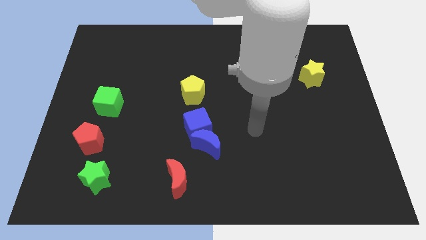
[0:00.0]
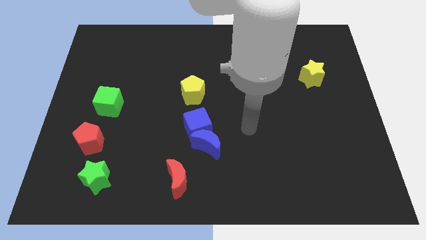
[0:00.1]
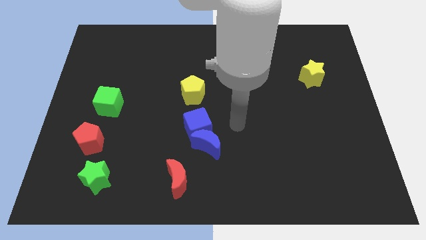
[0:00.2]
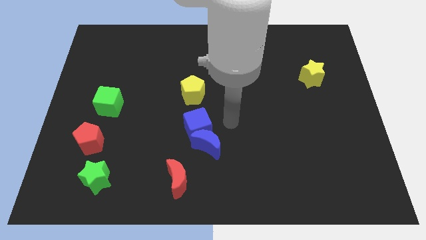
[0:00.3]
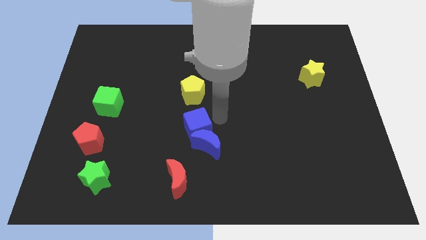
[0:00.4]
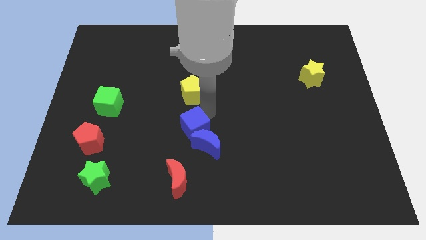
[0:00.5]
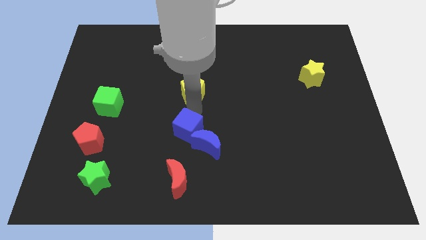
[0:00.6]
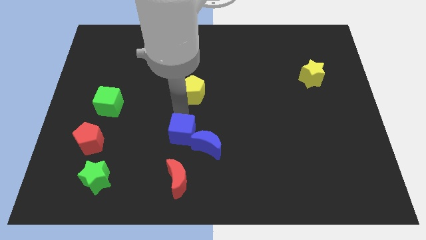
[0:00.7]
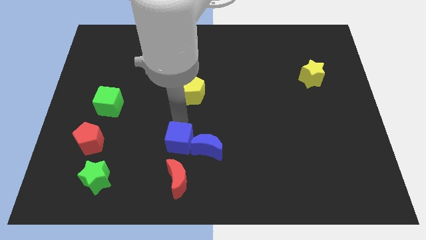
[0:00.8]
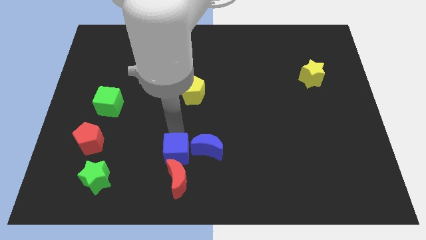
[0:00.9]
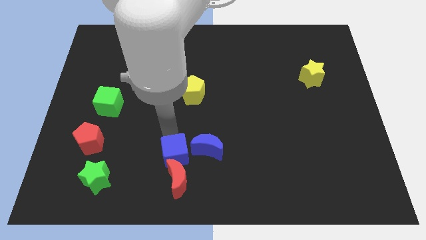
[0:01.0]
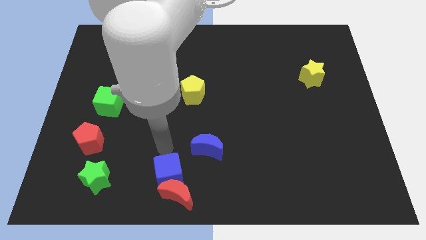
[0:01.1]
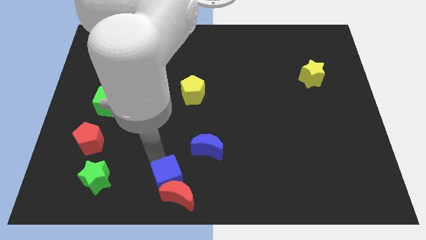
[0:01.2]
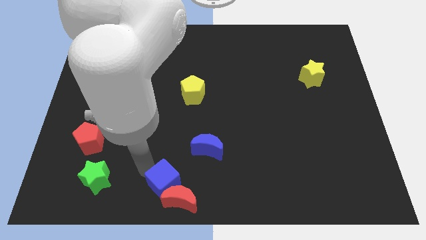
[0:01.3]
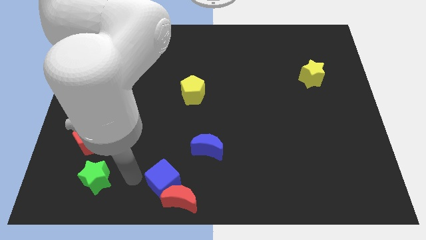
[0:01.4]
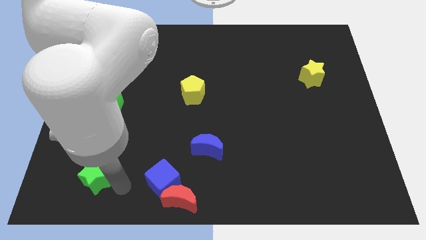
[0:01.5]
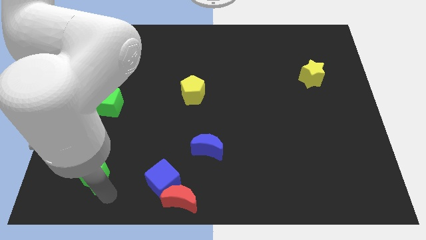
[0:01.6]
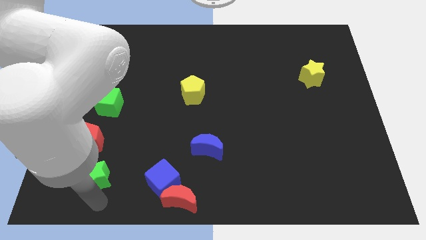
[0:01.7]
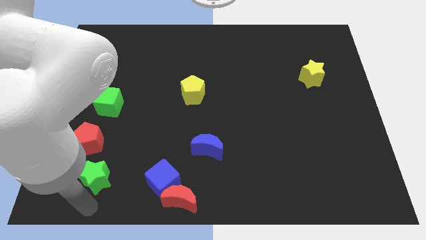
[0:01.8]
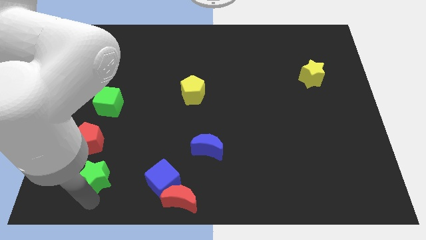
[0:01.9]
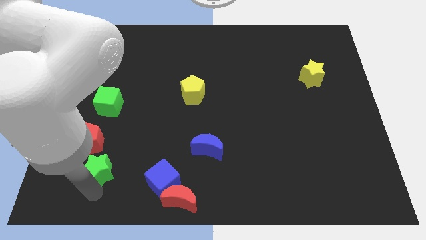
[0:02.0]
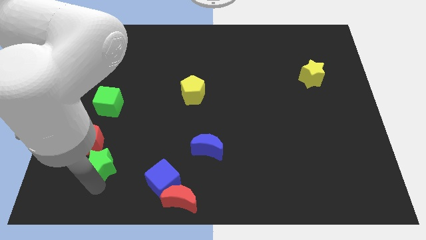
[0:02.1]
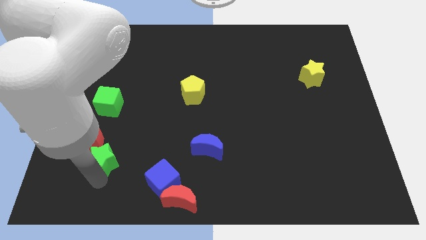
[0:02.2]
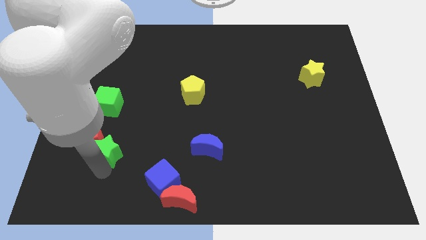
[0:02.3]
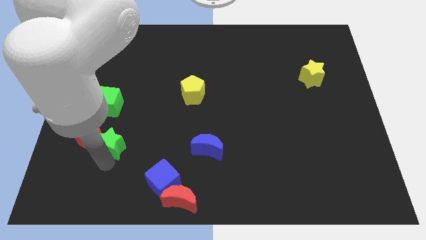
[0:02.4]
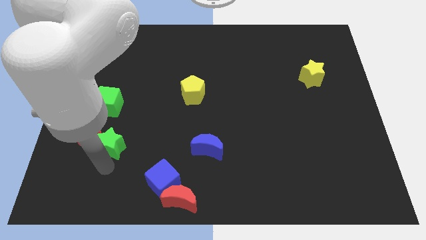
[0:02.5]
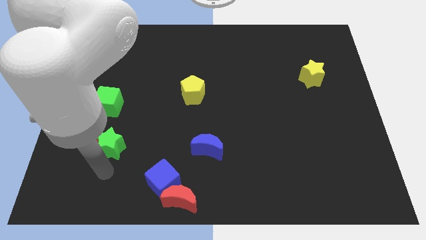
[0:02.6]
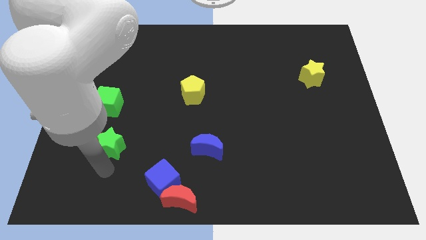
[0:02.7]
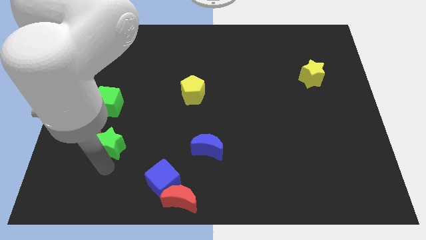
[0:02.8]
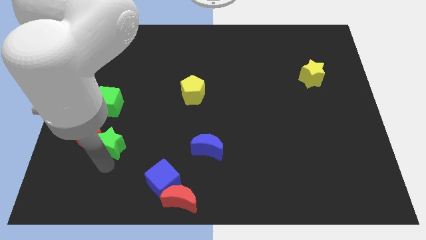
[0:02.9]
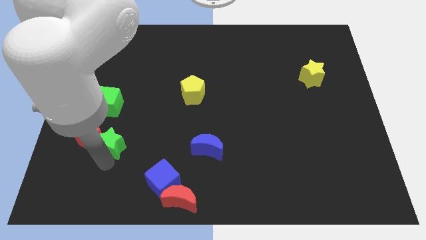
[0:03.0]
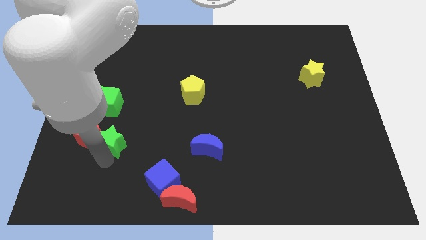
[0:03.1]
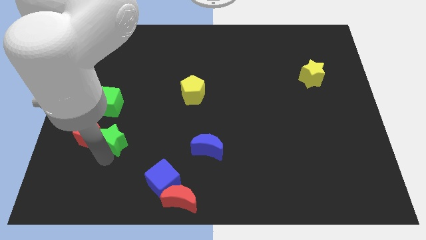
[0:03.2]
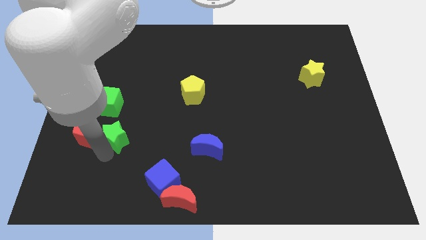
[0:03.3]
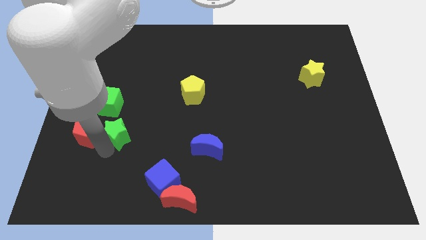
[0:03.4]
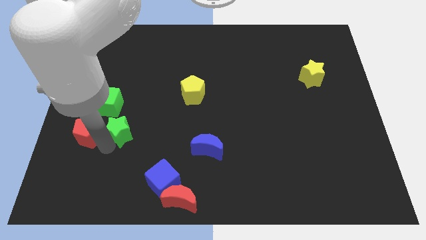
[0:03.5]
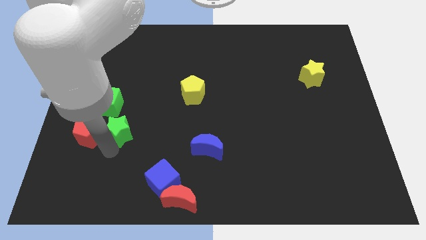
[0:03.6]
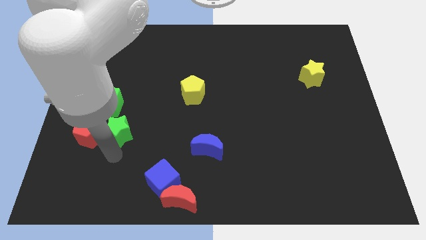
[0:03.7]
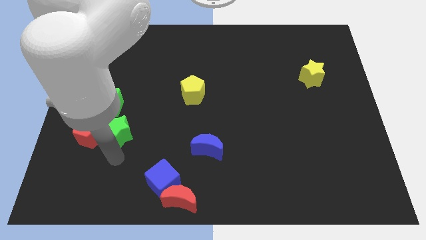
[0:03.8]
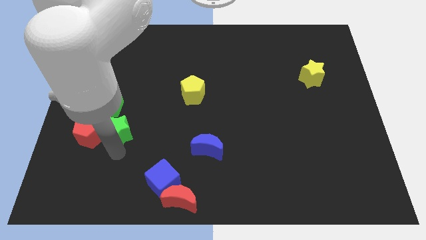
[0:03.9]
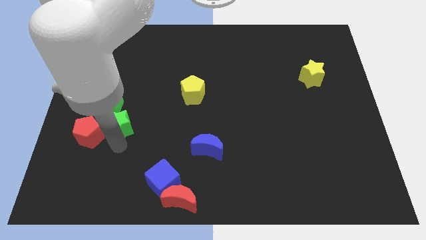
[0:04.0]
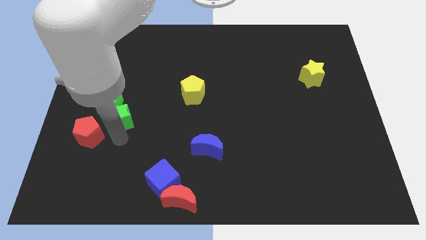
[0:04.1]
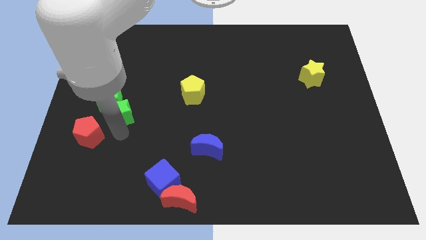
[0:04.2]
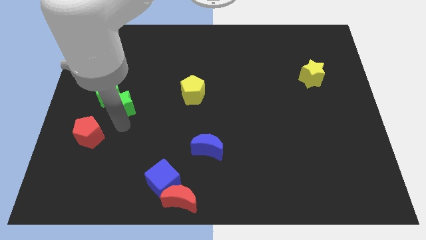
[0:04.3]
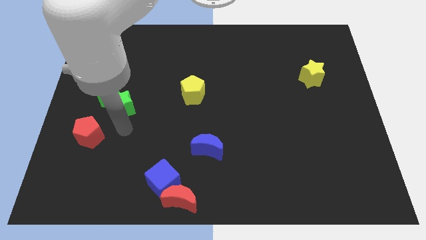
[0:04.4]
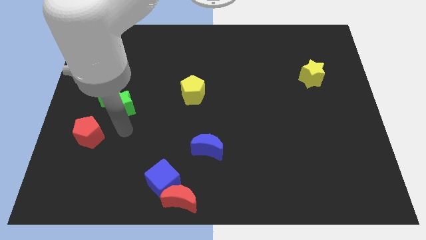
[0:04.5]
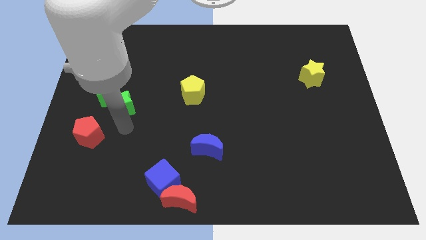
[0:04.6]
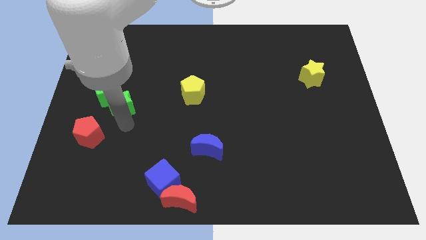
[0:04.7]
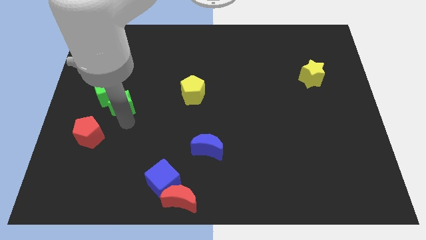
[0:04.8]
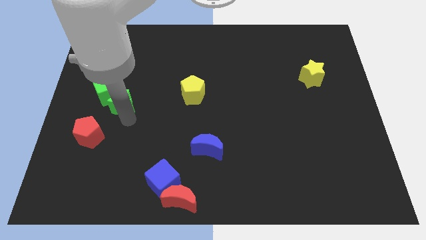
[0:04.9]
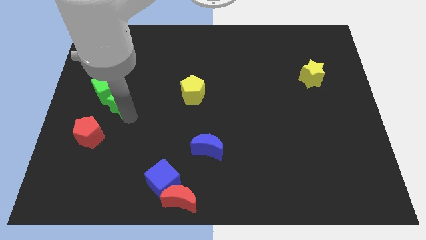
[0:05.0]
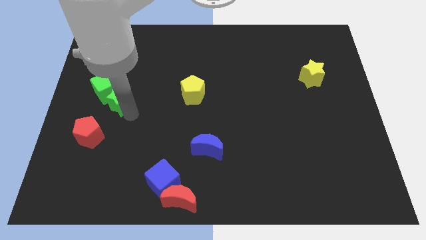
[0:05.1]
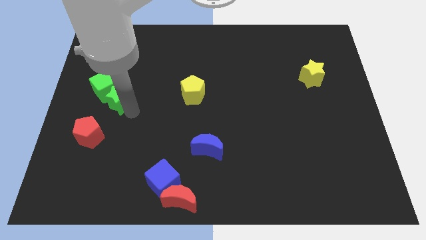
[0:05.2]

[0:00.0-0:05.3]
slide the green star up

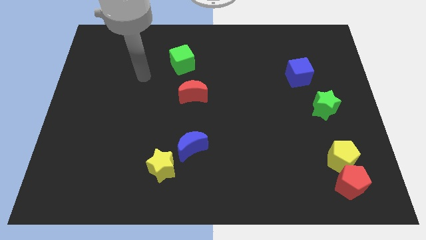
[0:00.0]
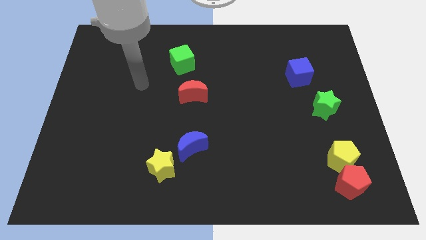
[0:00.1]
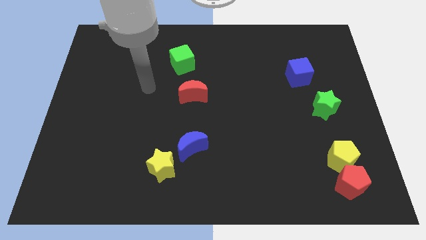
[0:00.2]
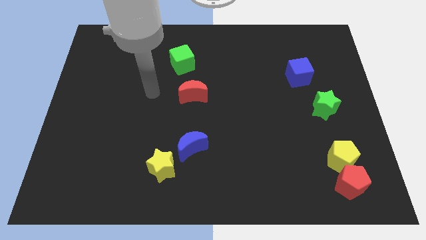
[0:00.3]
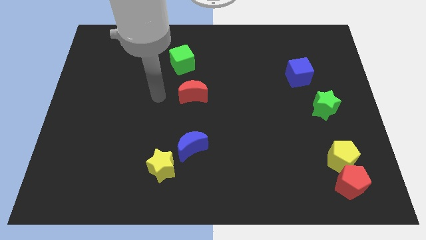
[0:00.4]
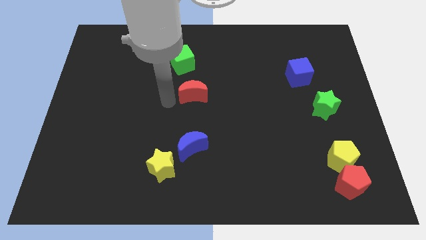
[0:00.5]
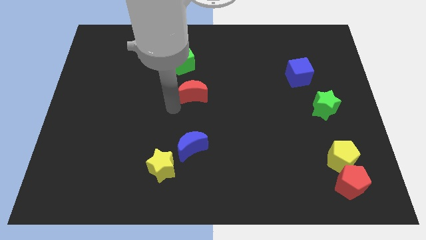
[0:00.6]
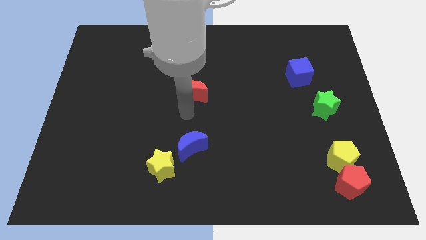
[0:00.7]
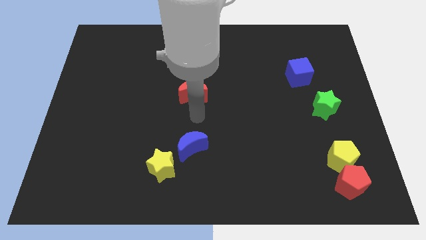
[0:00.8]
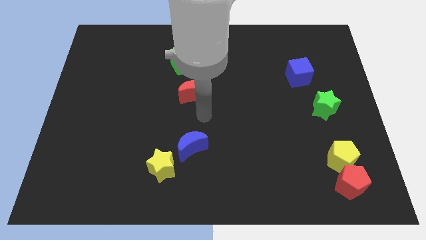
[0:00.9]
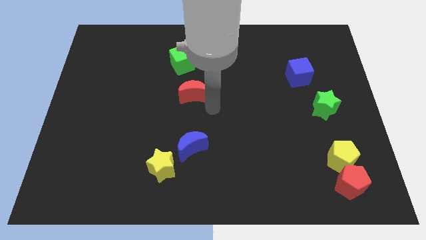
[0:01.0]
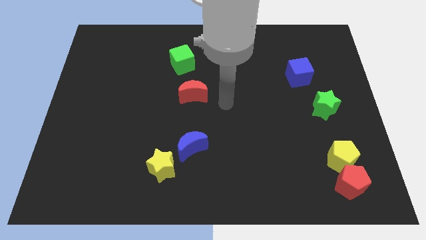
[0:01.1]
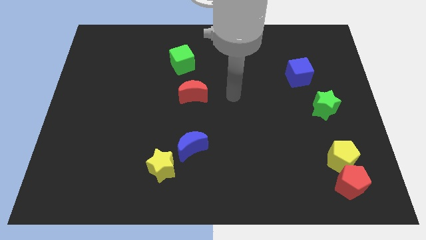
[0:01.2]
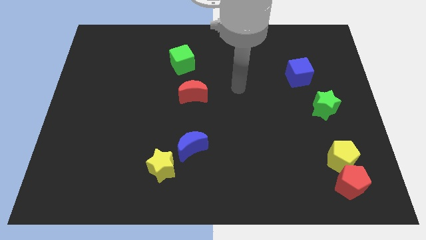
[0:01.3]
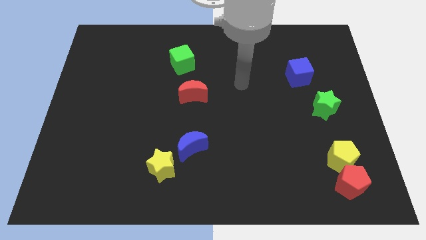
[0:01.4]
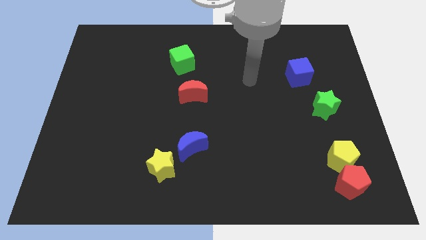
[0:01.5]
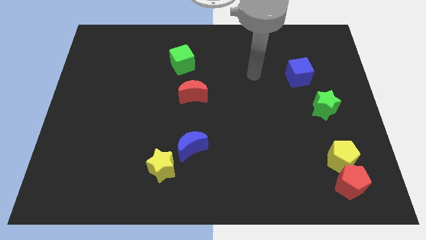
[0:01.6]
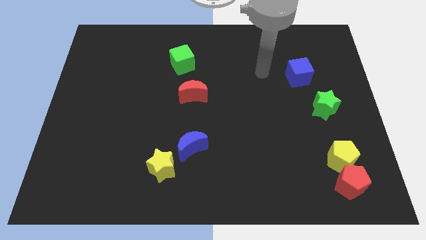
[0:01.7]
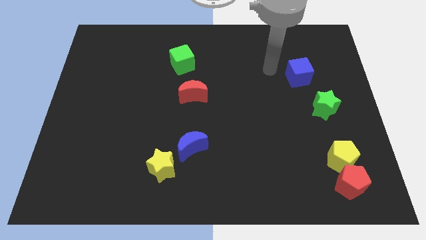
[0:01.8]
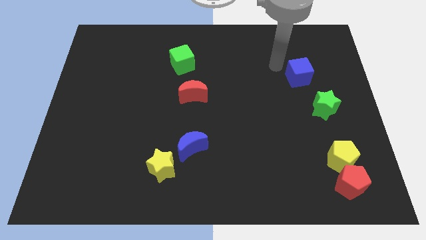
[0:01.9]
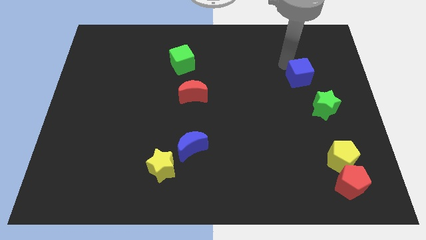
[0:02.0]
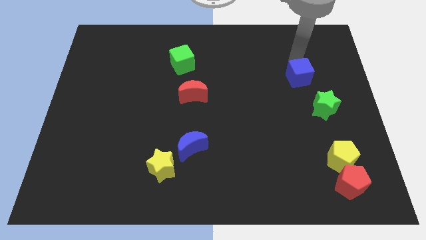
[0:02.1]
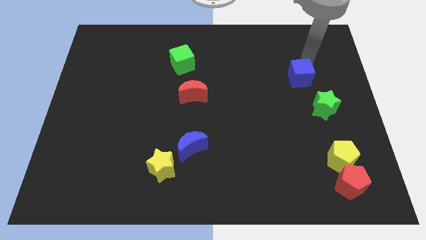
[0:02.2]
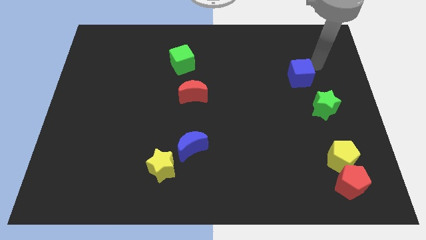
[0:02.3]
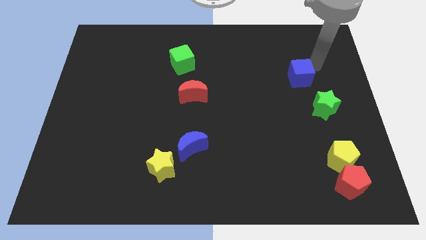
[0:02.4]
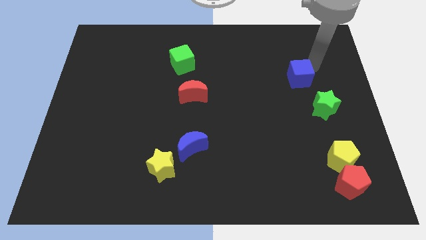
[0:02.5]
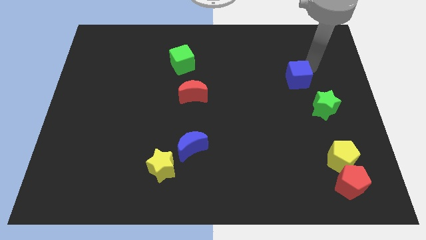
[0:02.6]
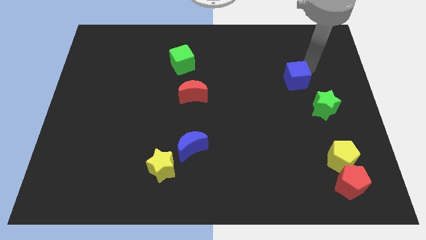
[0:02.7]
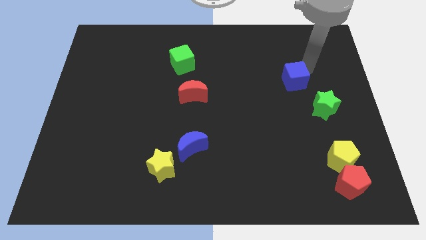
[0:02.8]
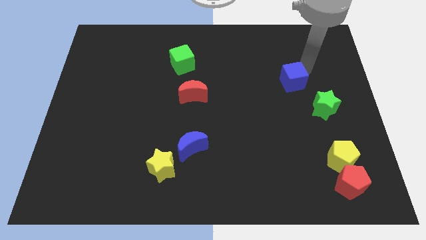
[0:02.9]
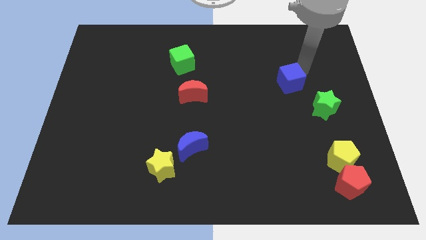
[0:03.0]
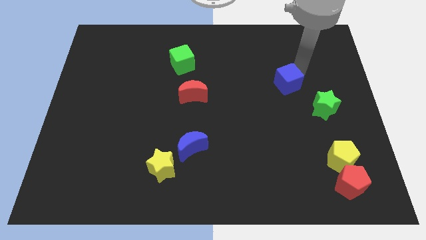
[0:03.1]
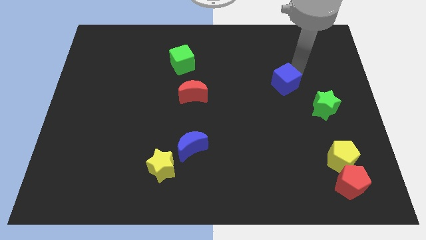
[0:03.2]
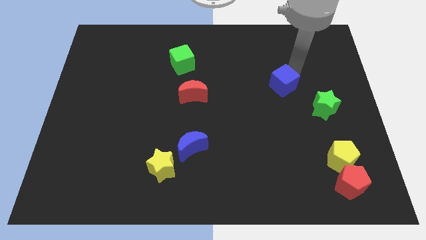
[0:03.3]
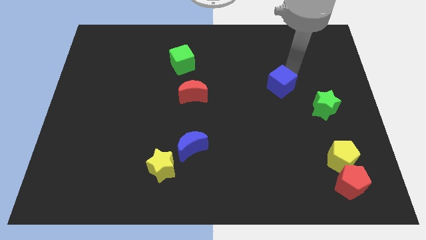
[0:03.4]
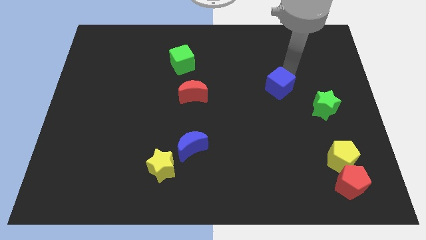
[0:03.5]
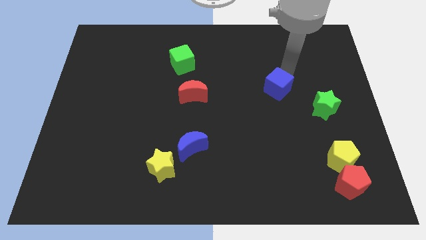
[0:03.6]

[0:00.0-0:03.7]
slightly slide the blue cube diagonally downwards and to the left
